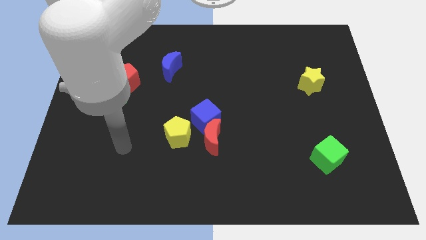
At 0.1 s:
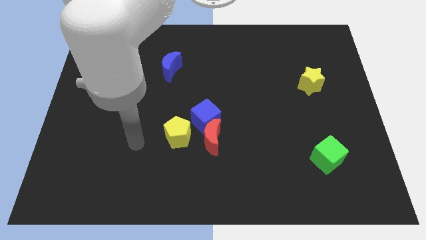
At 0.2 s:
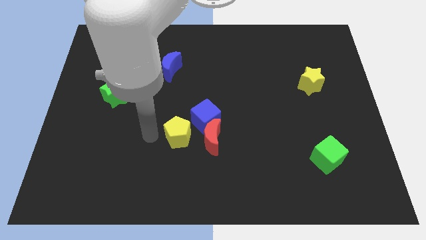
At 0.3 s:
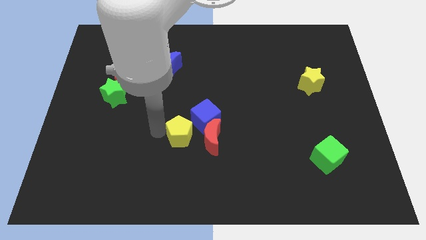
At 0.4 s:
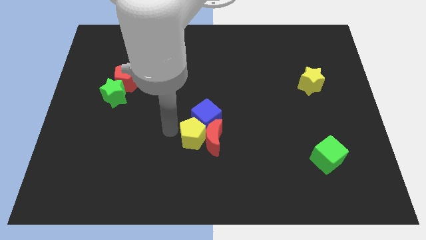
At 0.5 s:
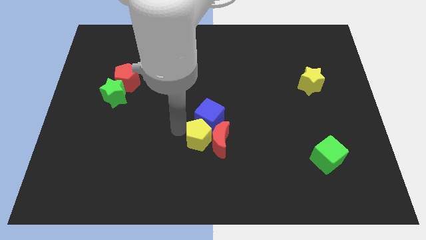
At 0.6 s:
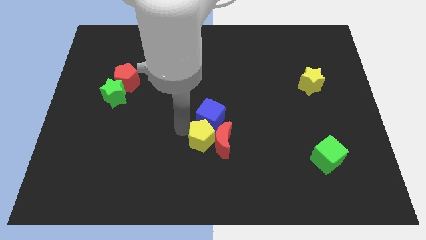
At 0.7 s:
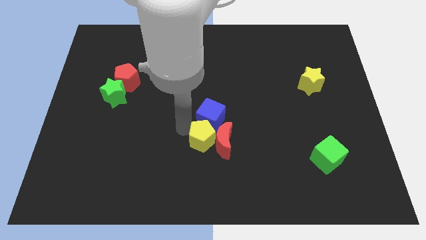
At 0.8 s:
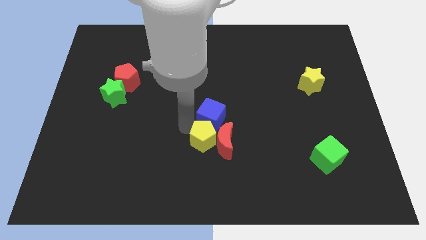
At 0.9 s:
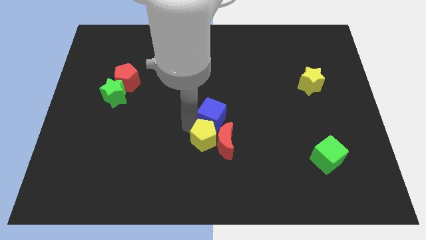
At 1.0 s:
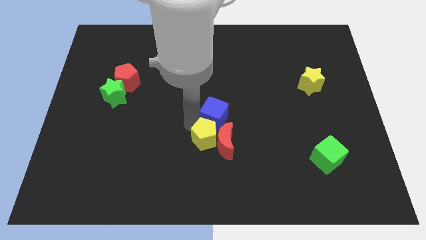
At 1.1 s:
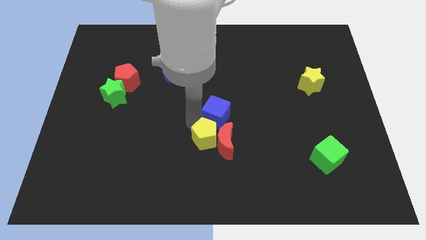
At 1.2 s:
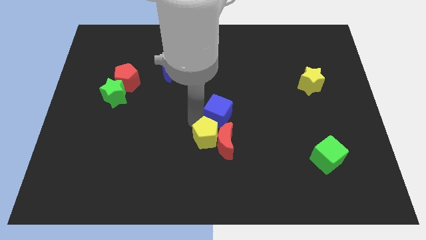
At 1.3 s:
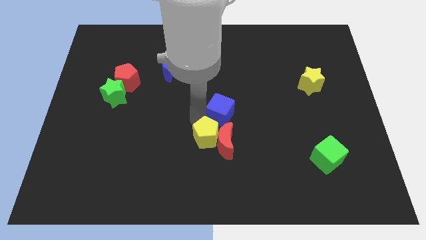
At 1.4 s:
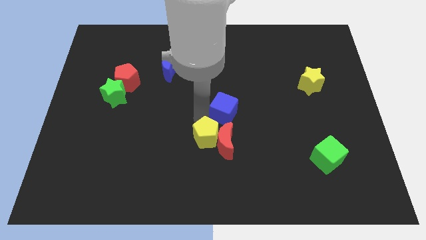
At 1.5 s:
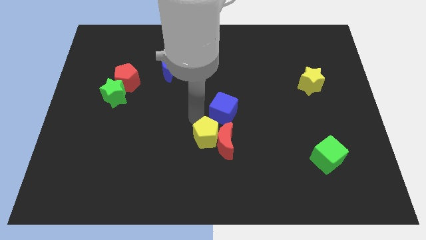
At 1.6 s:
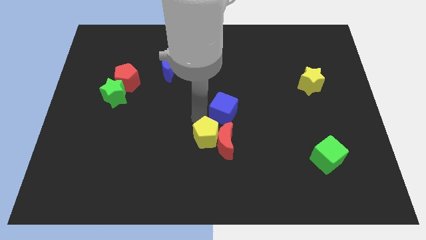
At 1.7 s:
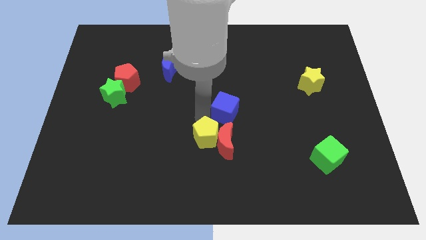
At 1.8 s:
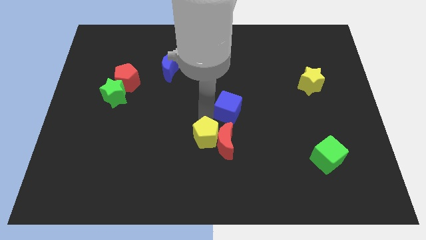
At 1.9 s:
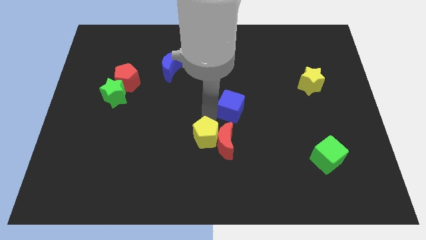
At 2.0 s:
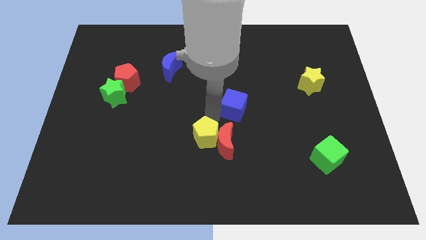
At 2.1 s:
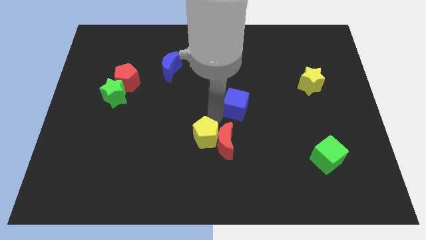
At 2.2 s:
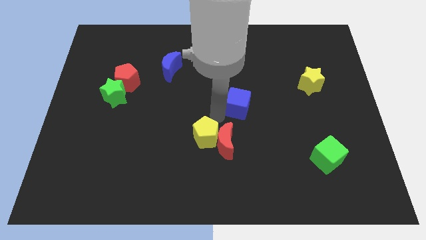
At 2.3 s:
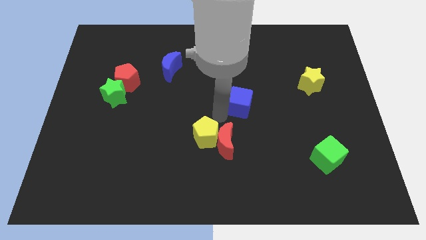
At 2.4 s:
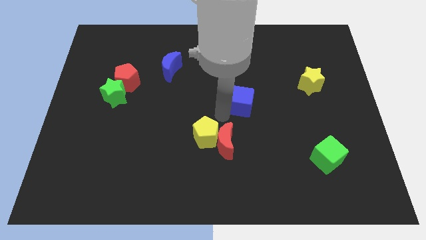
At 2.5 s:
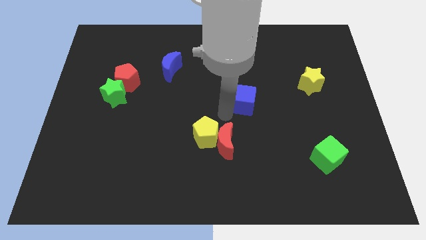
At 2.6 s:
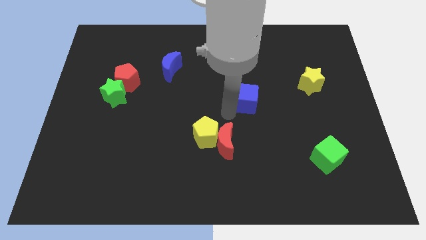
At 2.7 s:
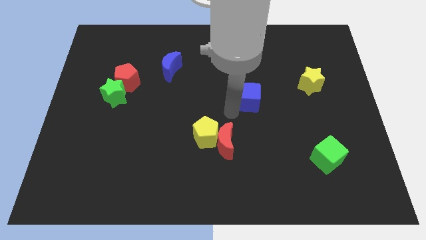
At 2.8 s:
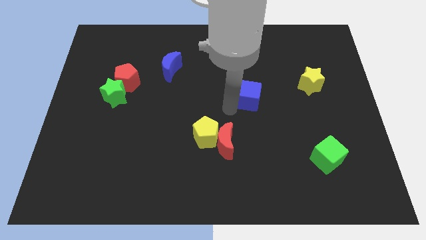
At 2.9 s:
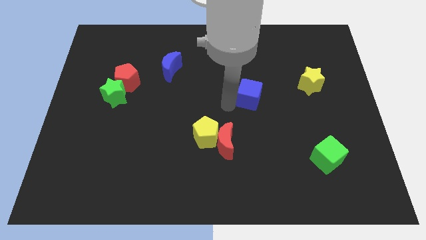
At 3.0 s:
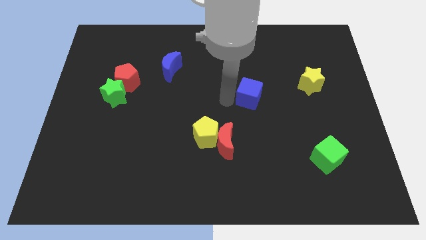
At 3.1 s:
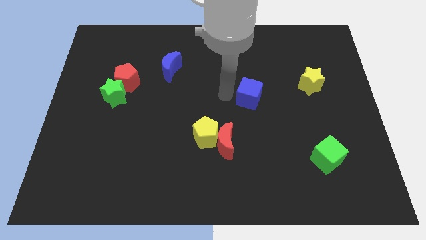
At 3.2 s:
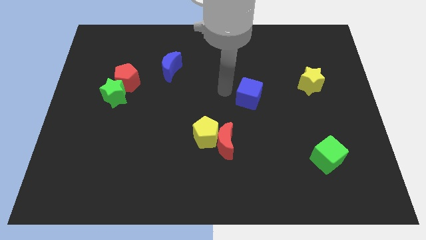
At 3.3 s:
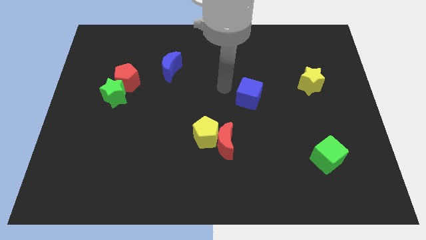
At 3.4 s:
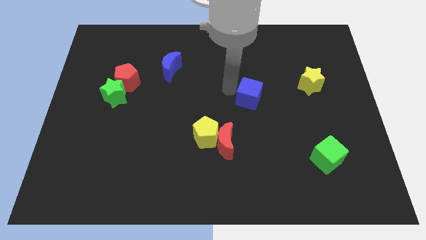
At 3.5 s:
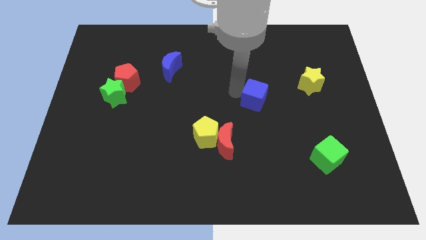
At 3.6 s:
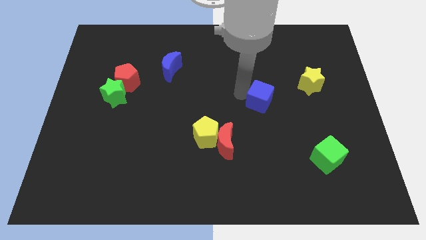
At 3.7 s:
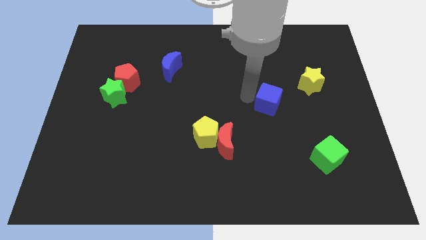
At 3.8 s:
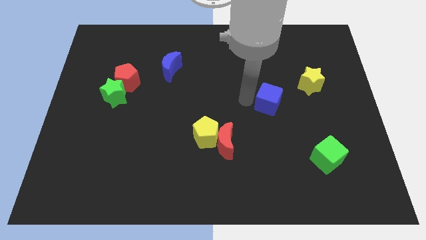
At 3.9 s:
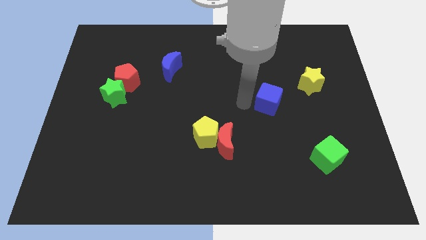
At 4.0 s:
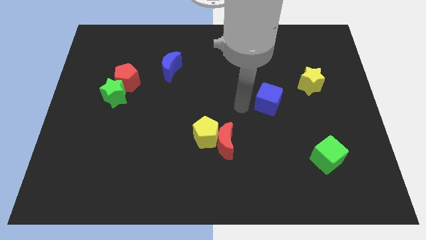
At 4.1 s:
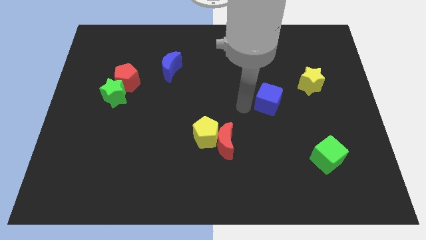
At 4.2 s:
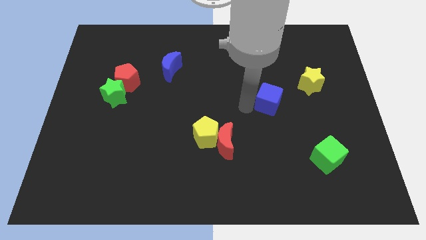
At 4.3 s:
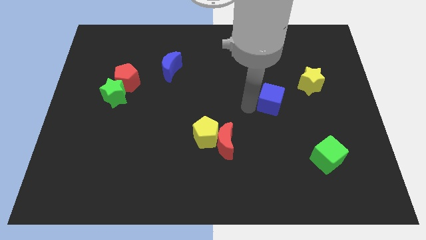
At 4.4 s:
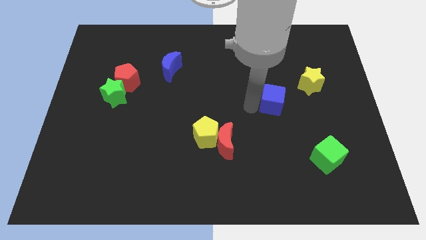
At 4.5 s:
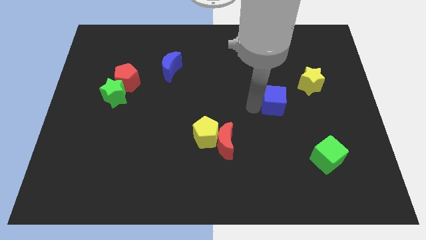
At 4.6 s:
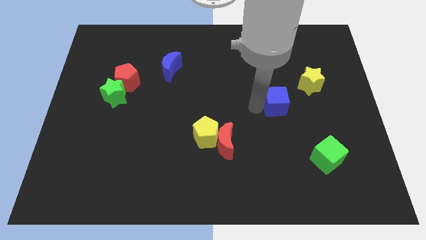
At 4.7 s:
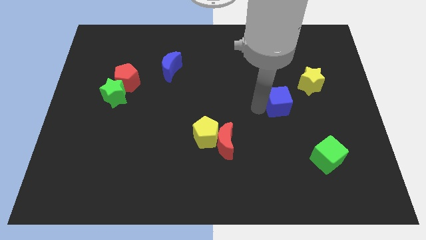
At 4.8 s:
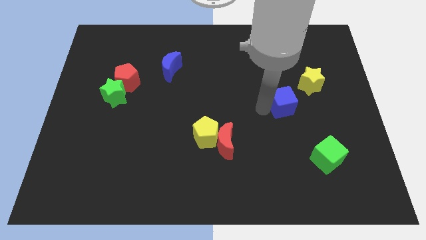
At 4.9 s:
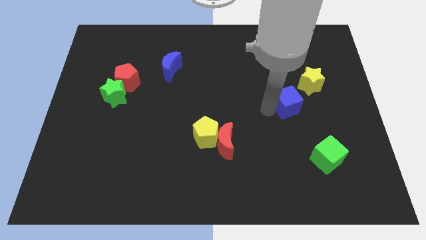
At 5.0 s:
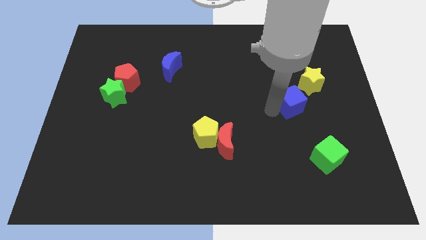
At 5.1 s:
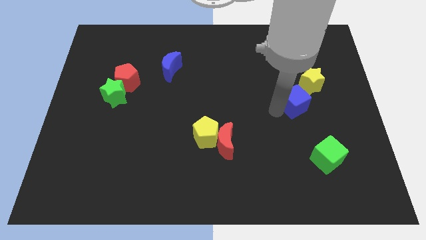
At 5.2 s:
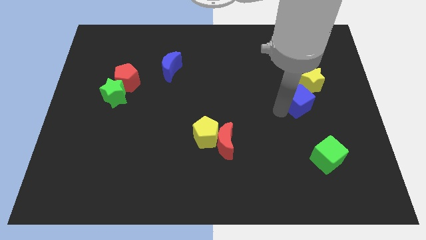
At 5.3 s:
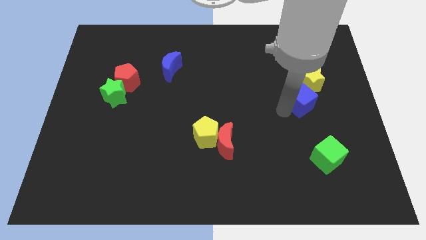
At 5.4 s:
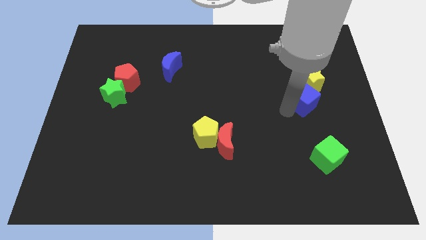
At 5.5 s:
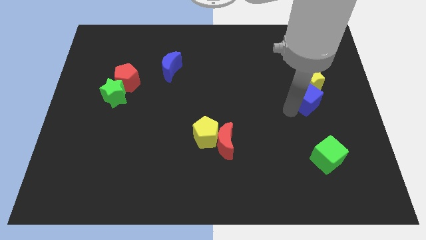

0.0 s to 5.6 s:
slide the blue cube close to the yellow star

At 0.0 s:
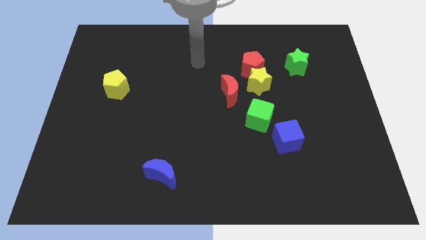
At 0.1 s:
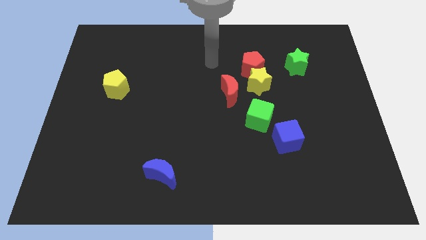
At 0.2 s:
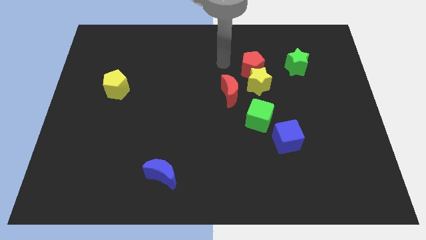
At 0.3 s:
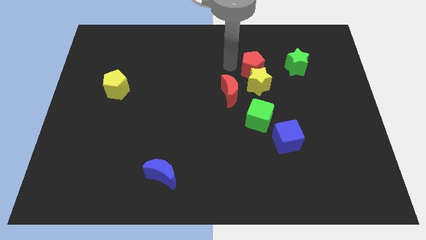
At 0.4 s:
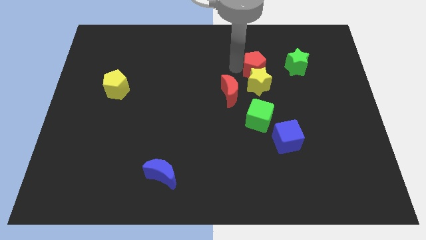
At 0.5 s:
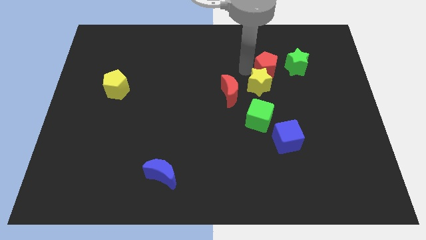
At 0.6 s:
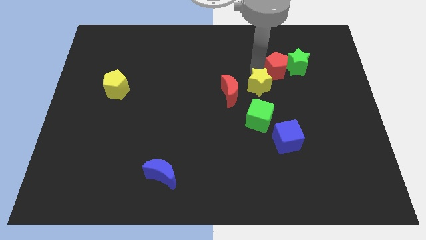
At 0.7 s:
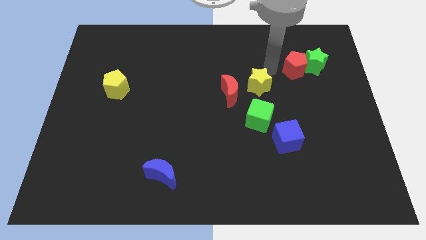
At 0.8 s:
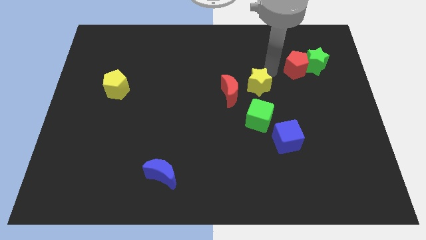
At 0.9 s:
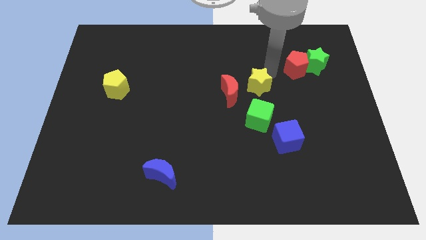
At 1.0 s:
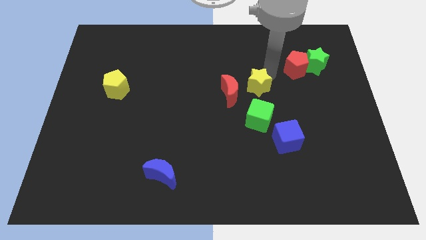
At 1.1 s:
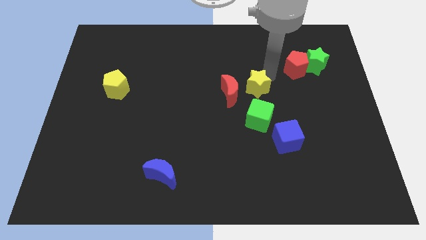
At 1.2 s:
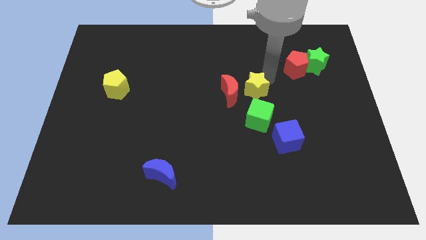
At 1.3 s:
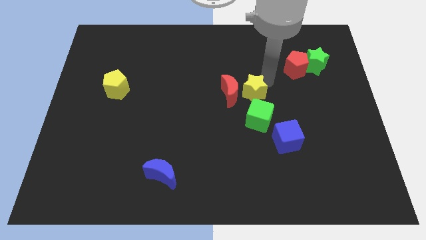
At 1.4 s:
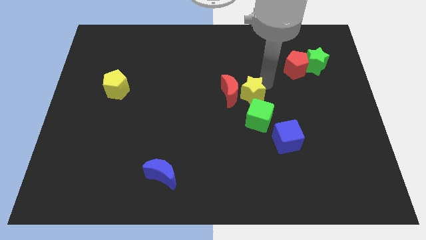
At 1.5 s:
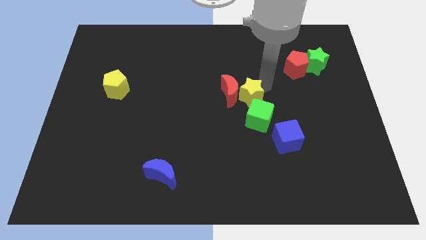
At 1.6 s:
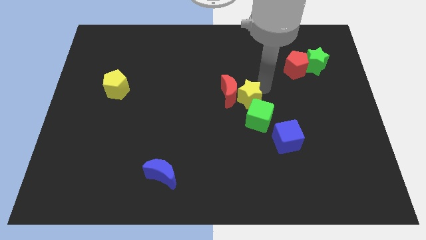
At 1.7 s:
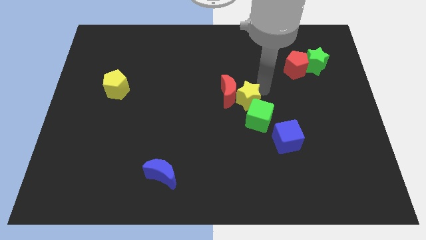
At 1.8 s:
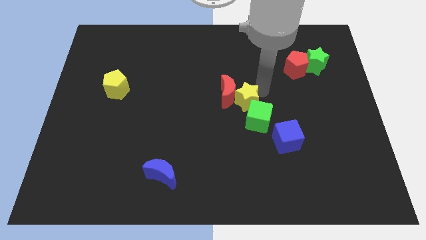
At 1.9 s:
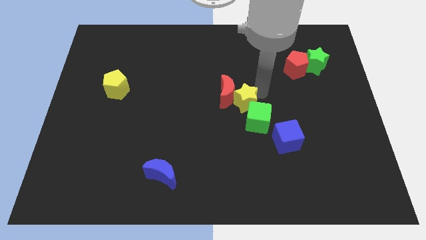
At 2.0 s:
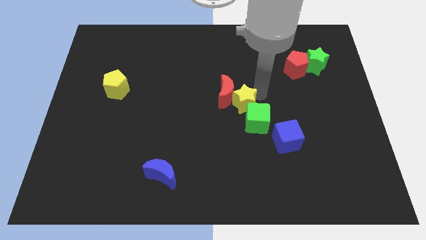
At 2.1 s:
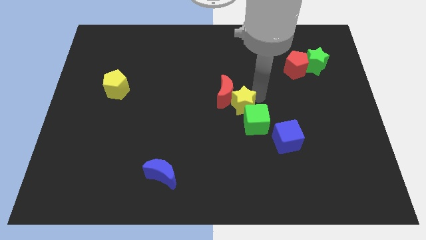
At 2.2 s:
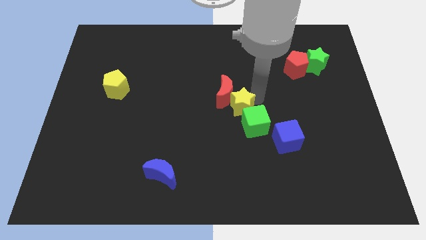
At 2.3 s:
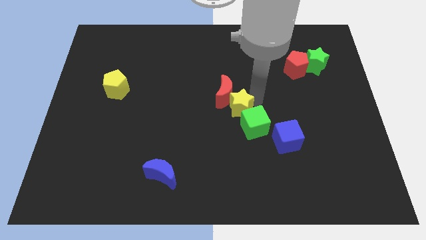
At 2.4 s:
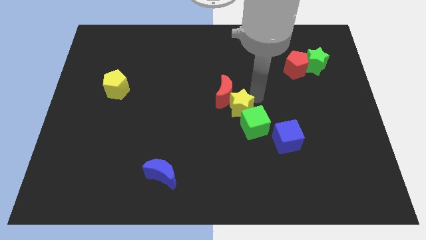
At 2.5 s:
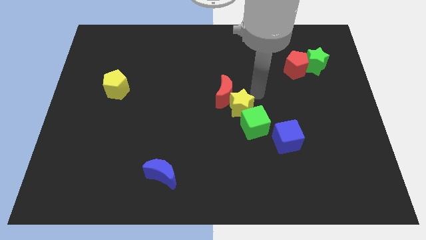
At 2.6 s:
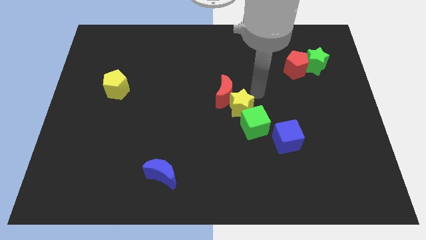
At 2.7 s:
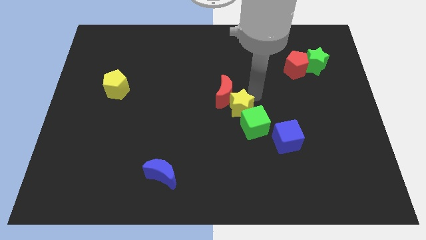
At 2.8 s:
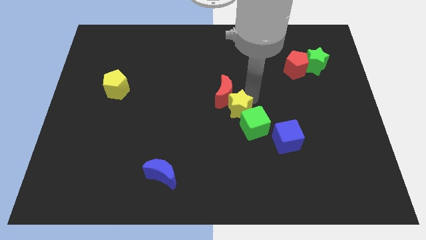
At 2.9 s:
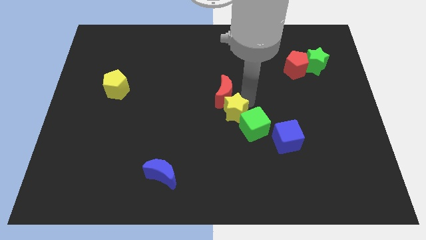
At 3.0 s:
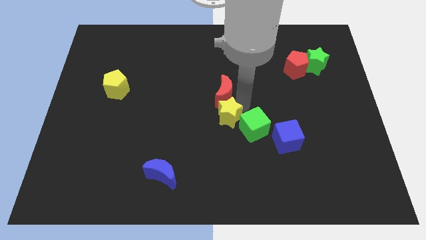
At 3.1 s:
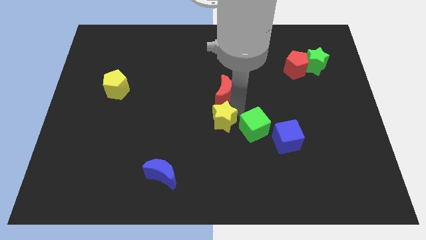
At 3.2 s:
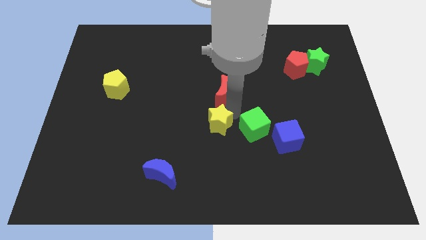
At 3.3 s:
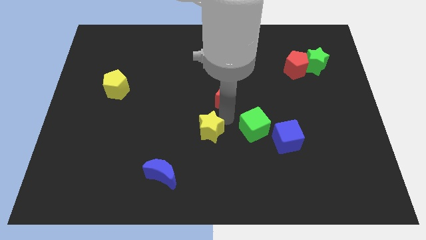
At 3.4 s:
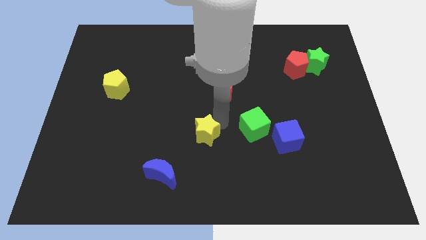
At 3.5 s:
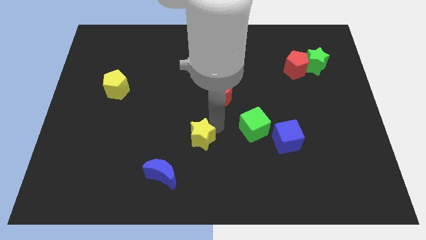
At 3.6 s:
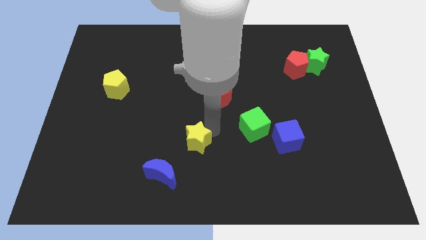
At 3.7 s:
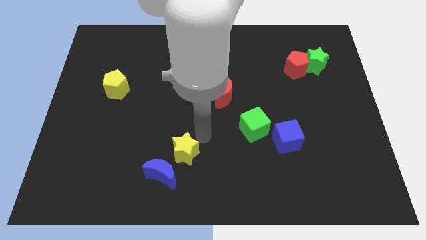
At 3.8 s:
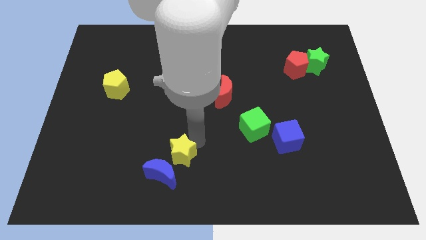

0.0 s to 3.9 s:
push the yellow star close to the blue moon
